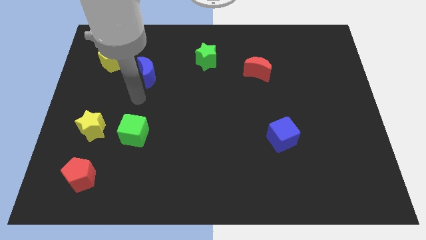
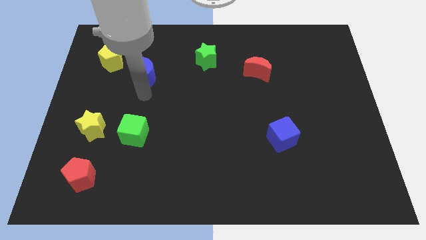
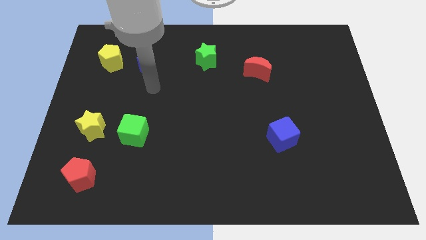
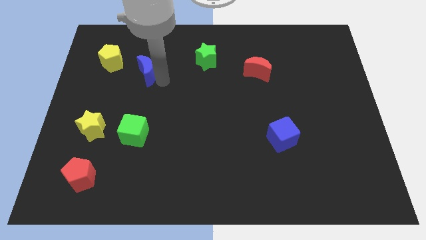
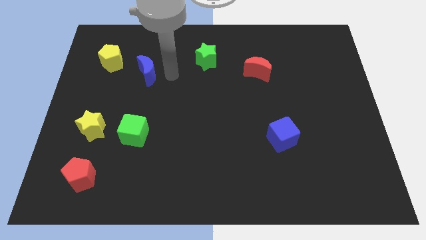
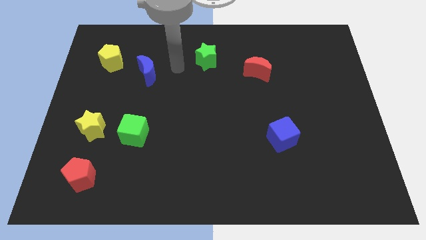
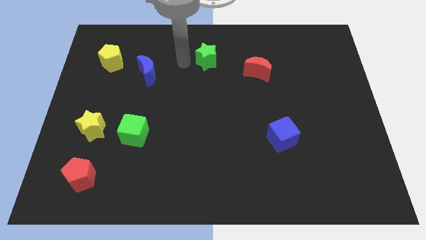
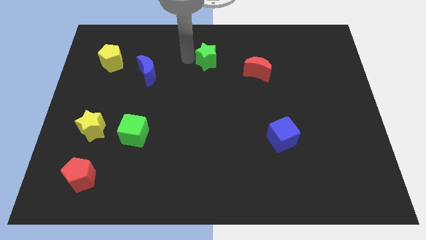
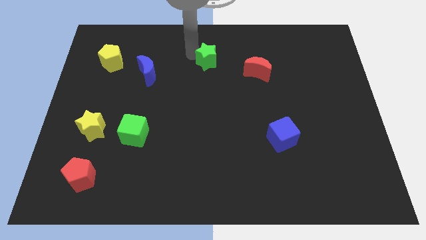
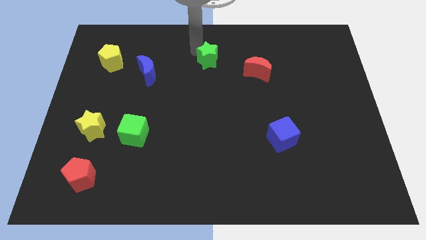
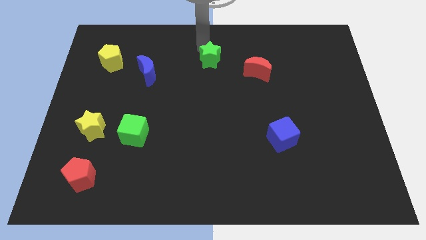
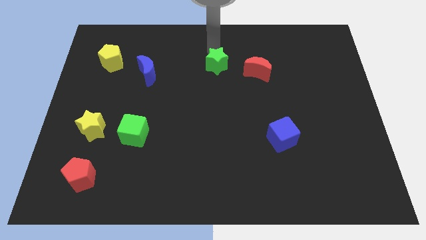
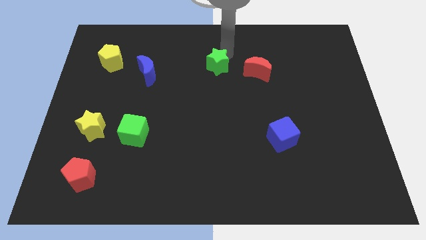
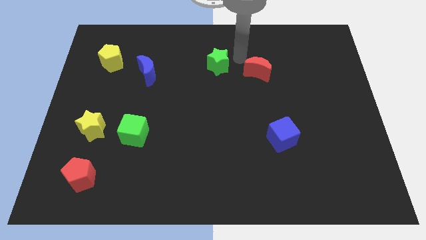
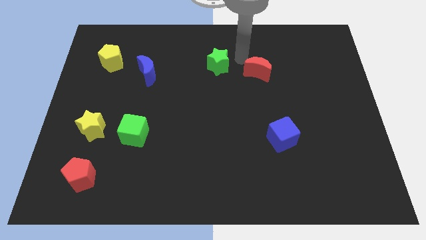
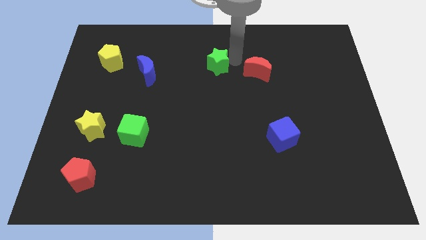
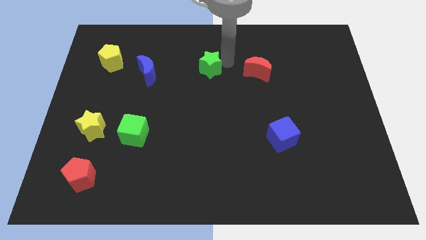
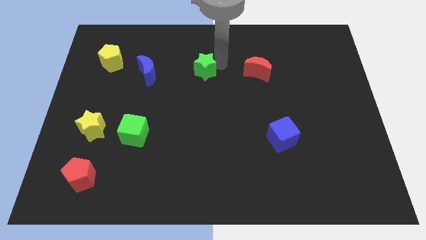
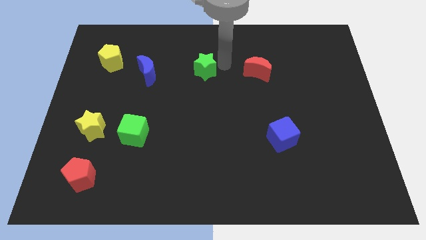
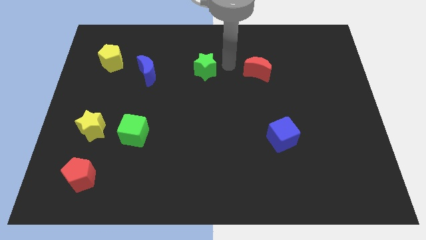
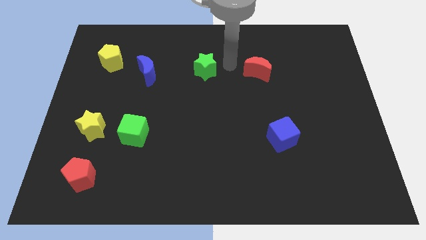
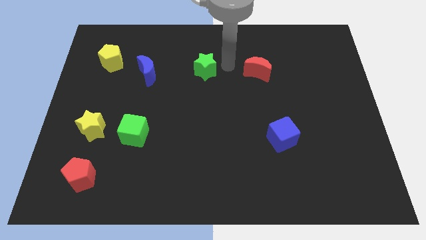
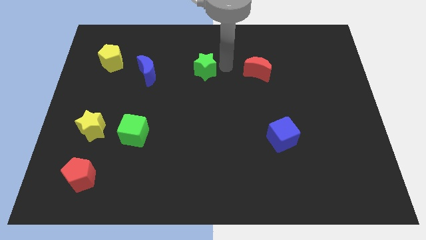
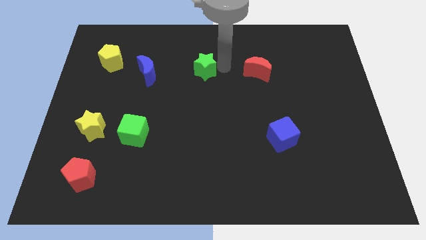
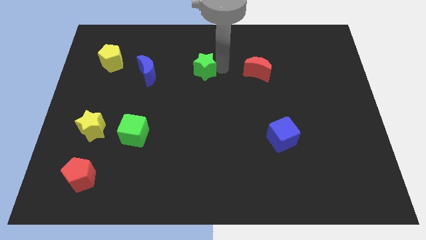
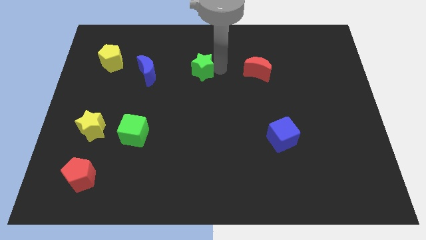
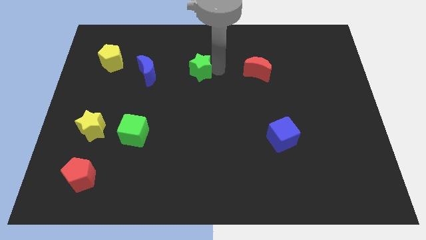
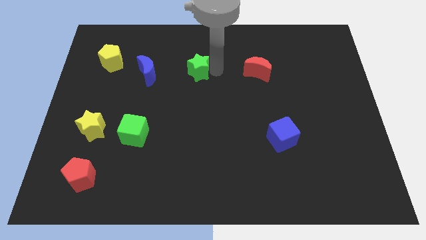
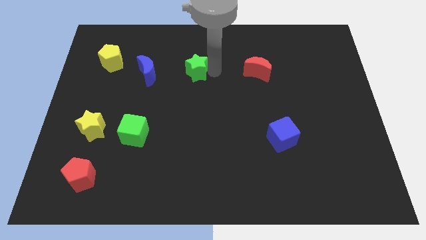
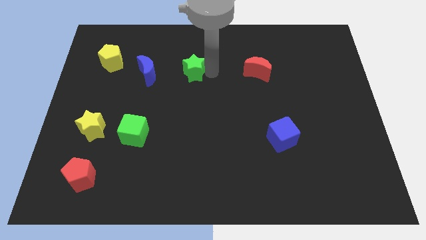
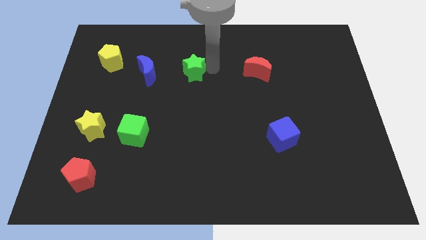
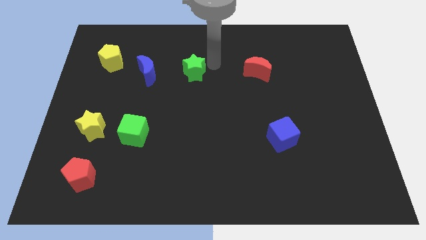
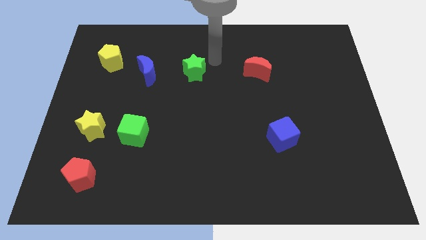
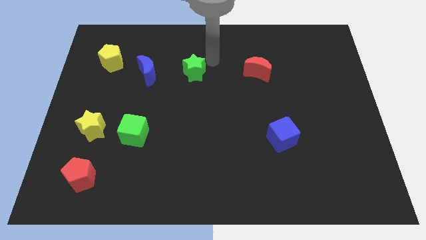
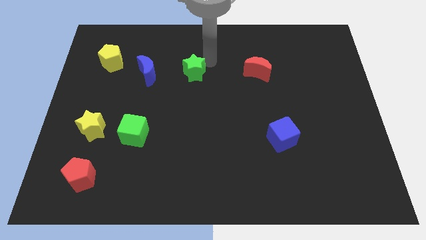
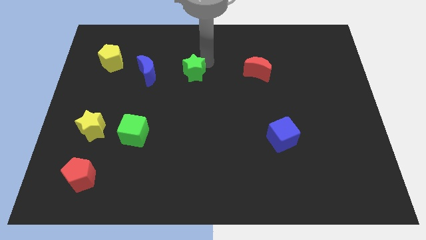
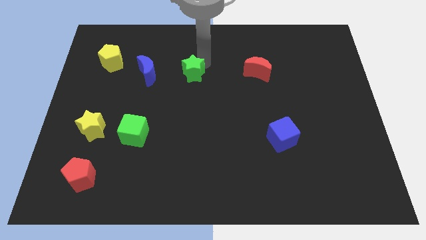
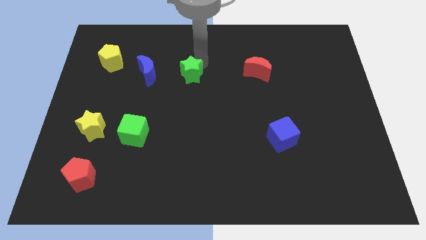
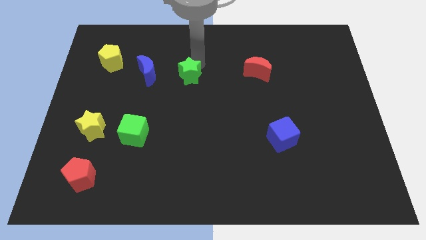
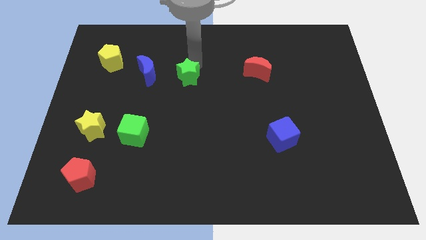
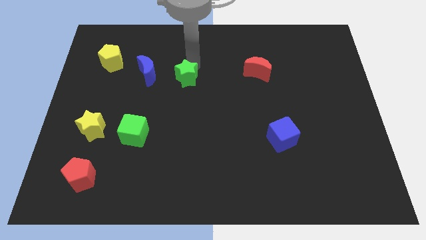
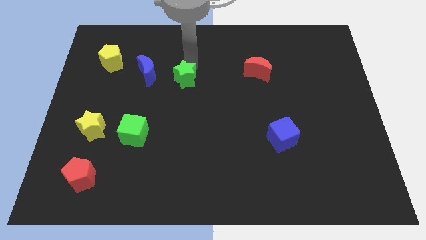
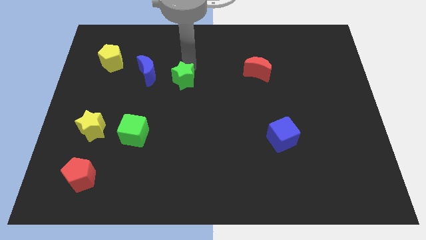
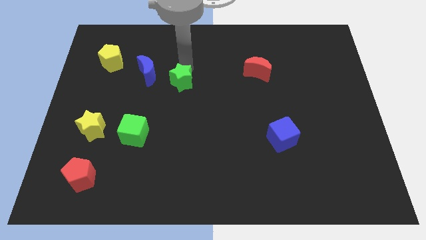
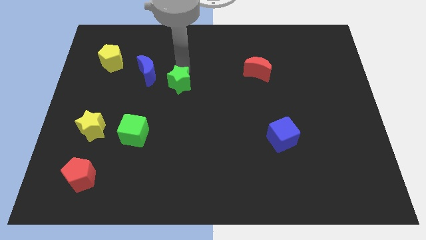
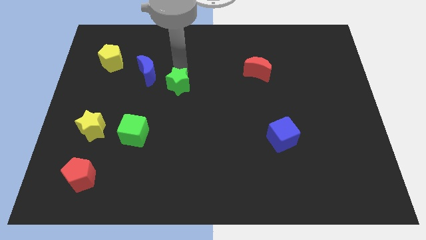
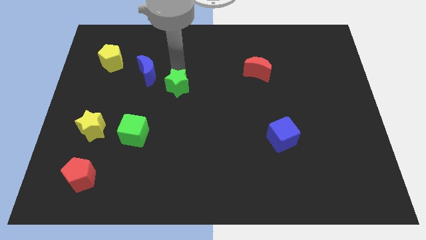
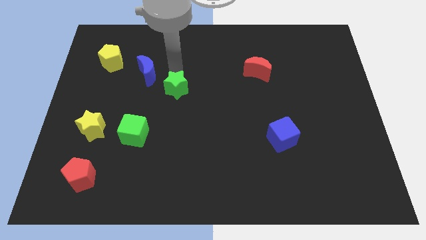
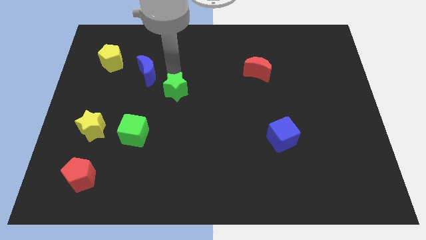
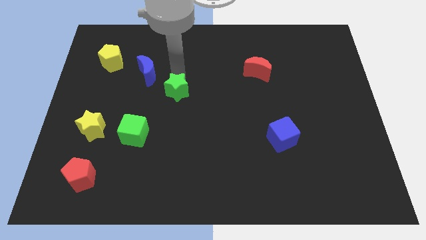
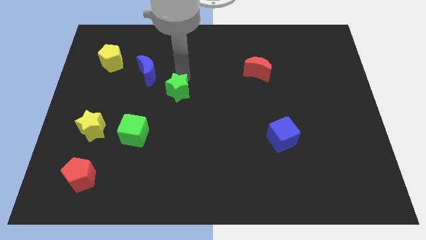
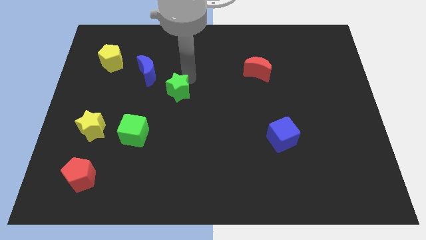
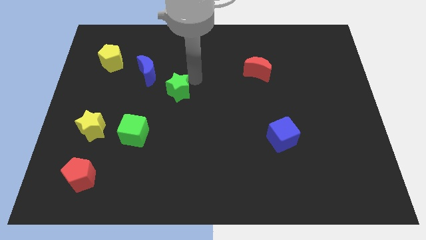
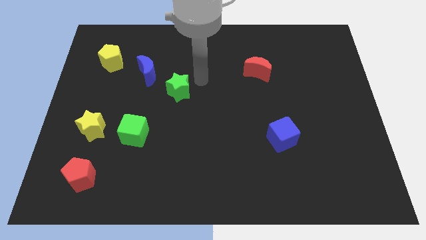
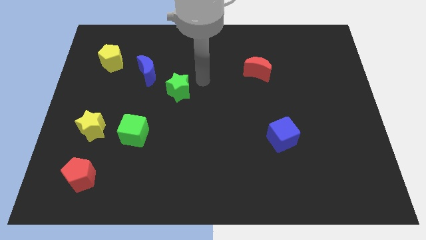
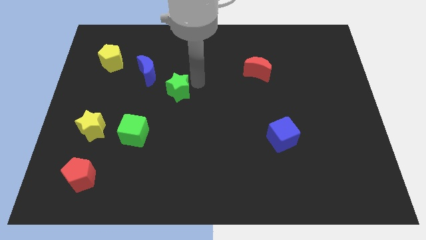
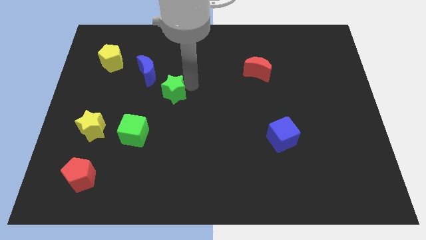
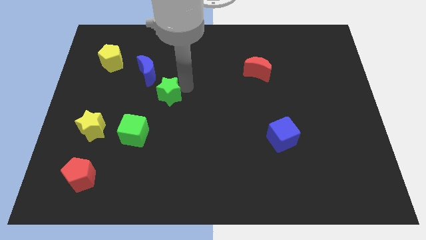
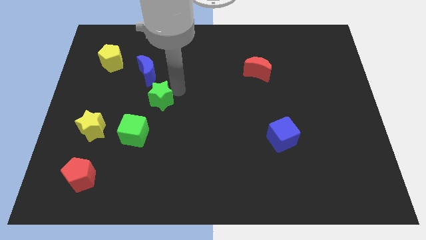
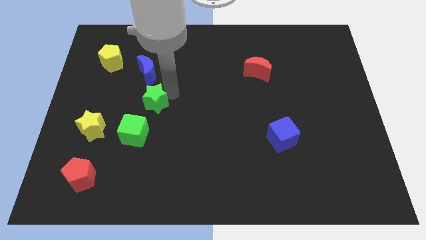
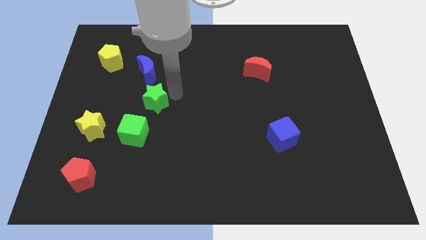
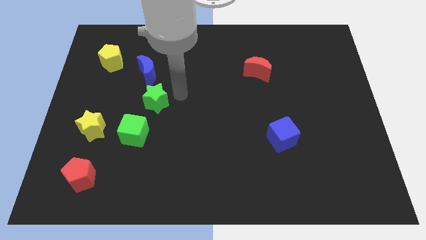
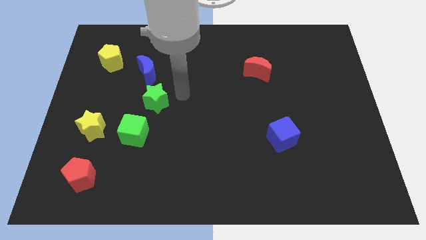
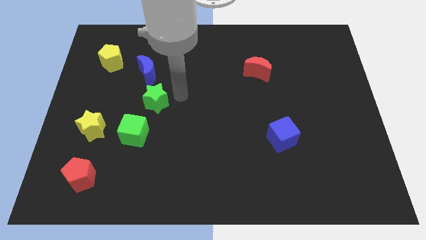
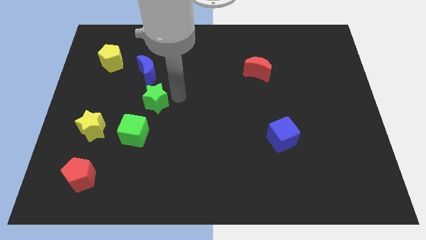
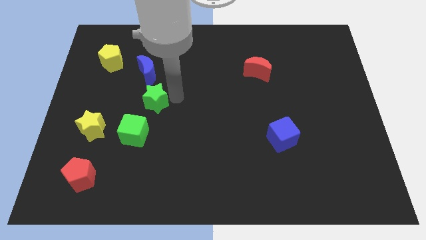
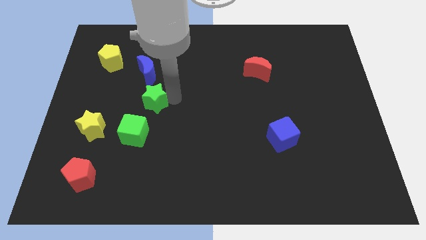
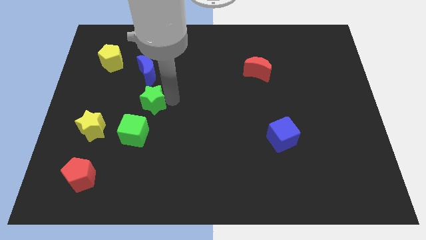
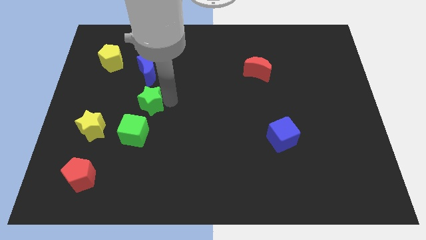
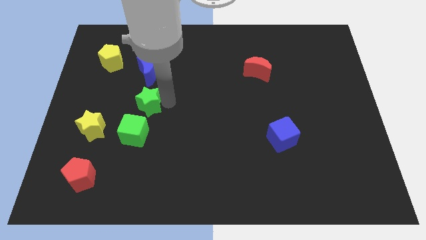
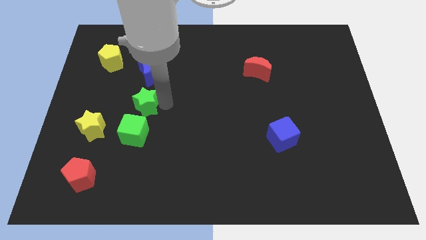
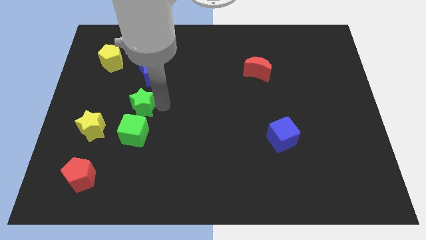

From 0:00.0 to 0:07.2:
put the green star diagonally up and to the right of the yellow star
